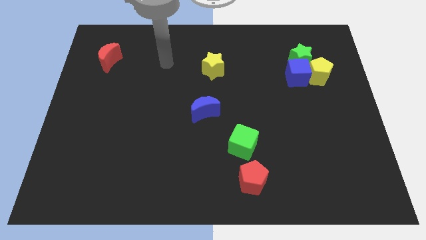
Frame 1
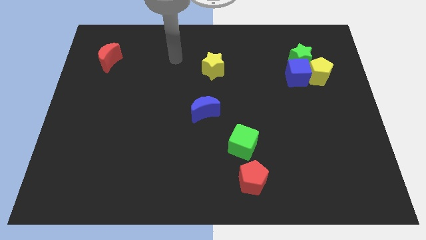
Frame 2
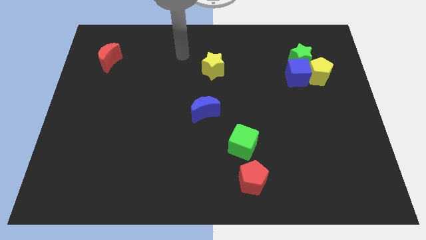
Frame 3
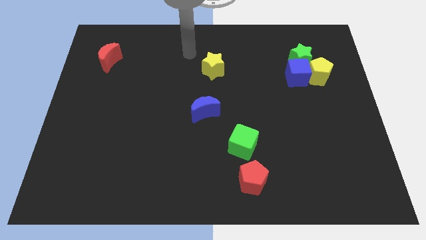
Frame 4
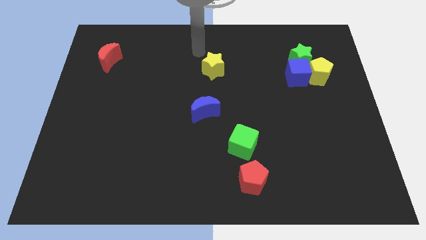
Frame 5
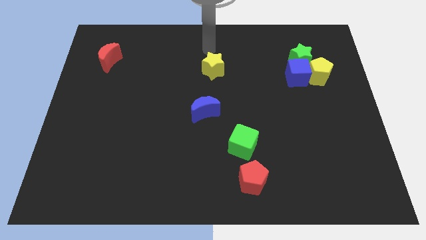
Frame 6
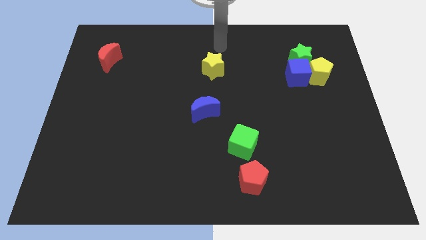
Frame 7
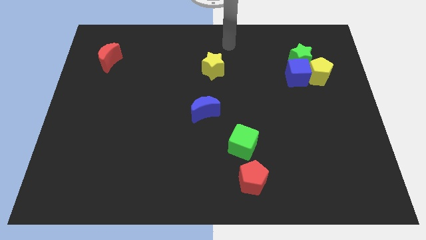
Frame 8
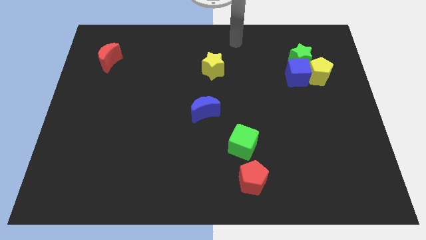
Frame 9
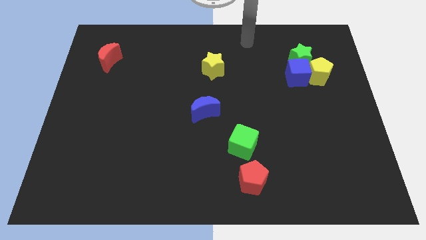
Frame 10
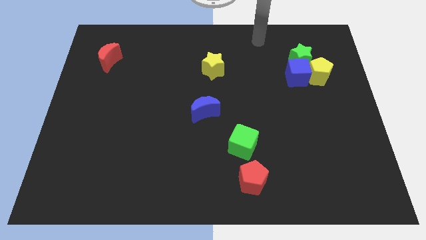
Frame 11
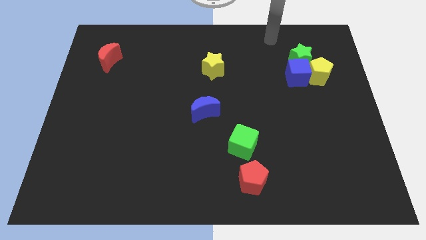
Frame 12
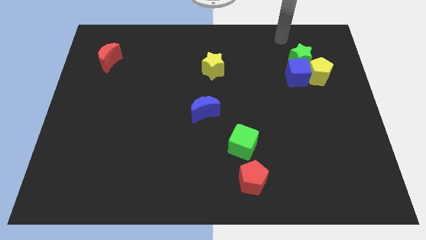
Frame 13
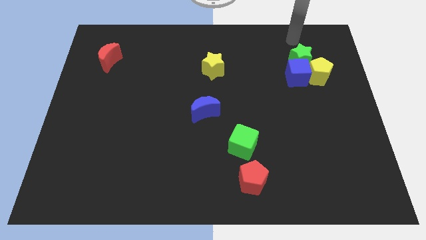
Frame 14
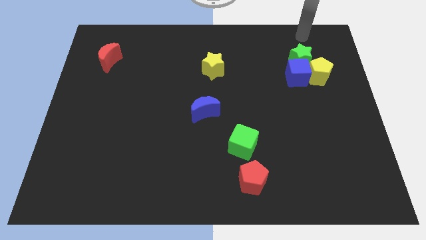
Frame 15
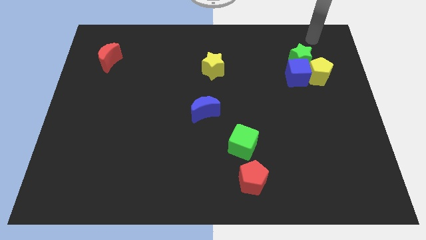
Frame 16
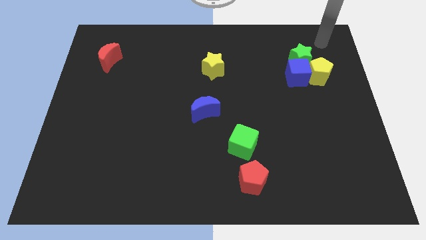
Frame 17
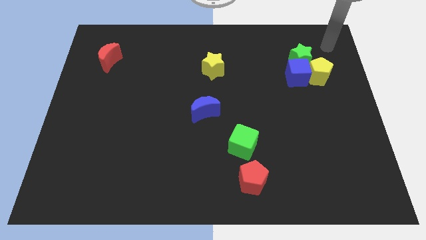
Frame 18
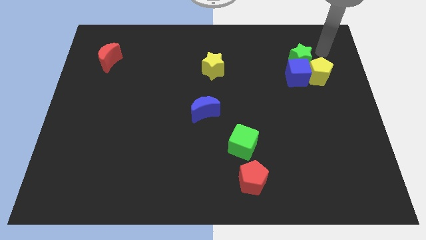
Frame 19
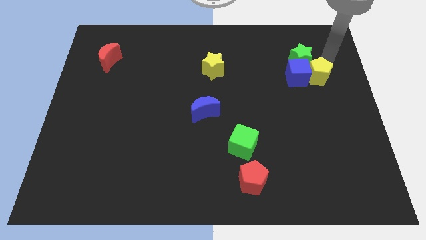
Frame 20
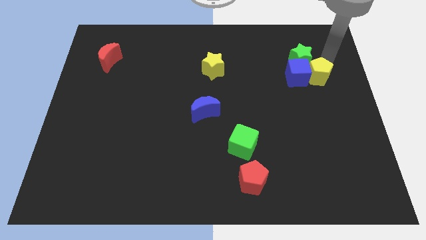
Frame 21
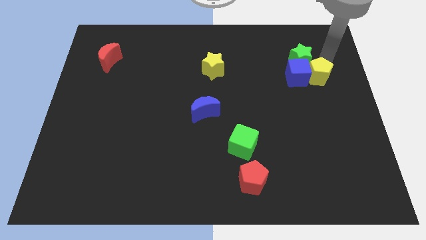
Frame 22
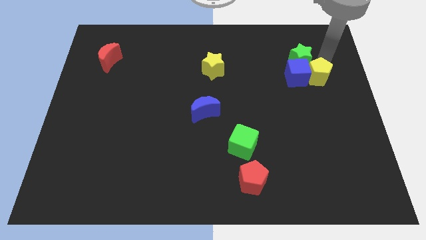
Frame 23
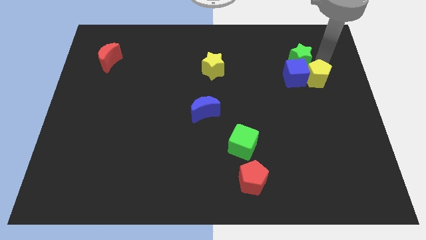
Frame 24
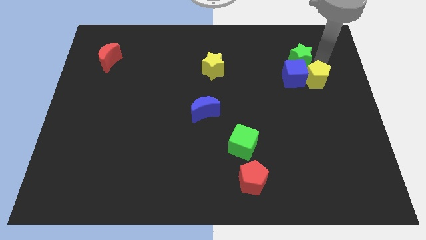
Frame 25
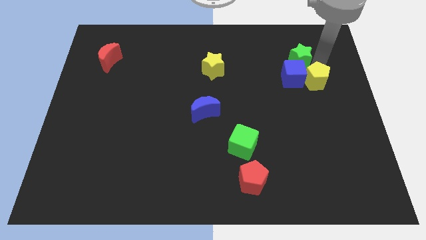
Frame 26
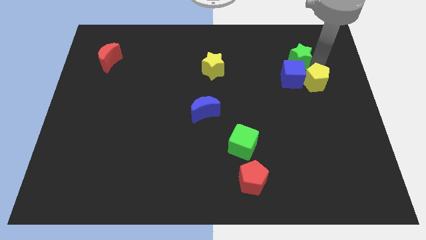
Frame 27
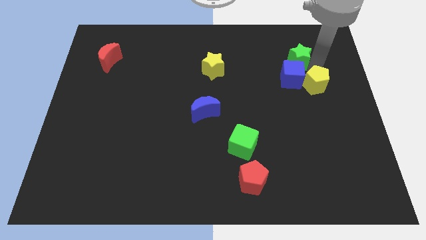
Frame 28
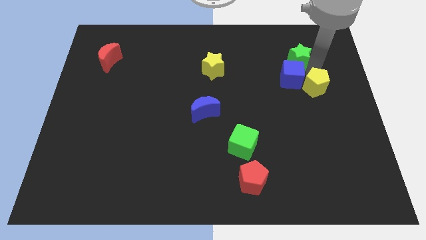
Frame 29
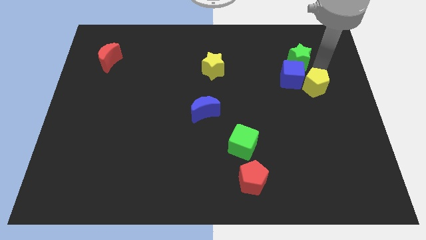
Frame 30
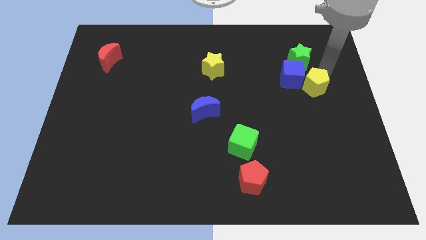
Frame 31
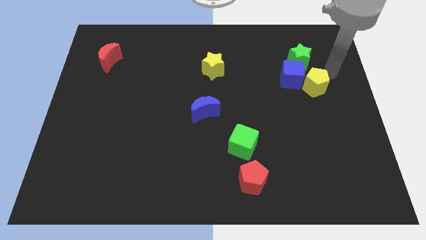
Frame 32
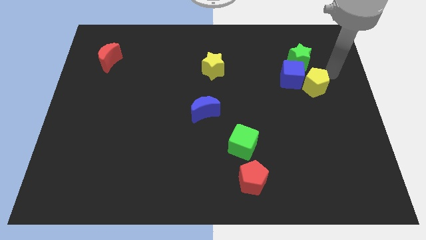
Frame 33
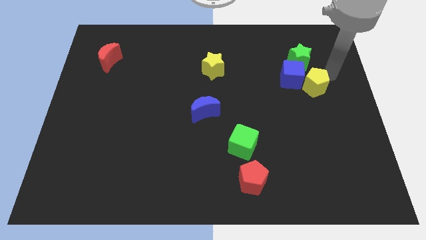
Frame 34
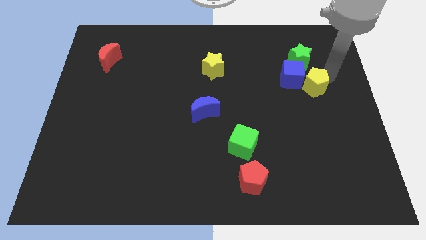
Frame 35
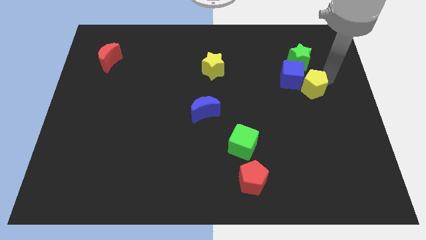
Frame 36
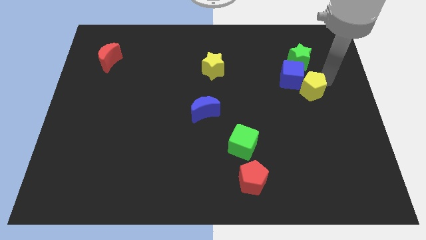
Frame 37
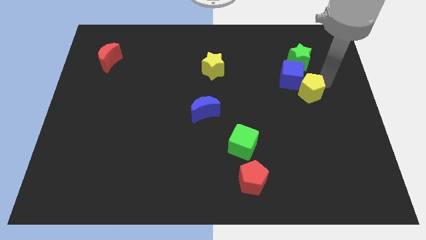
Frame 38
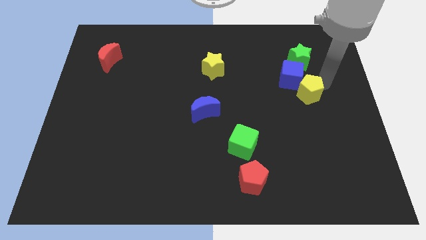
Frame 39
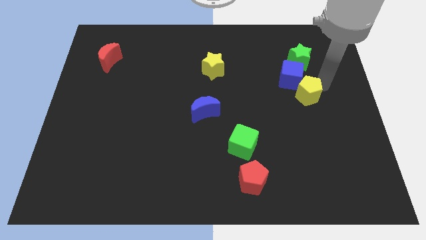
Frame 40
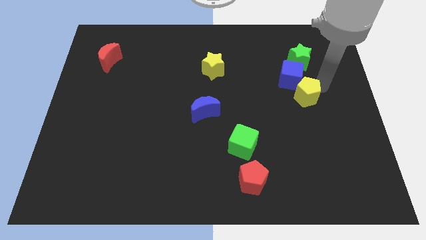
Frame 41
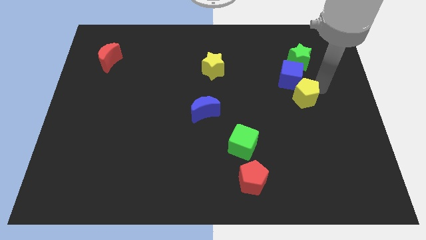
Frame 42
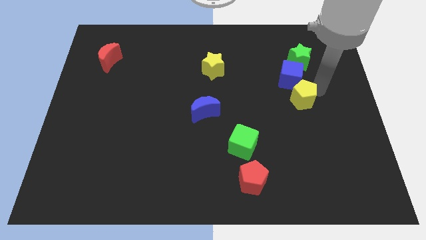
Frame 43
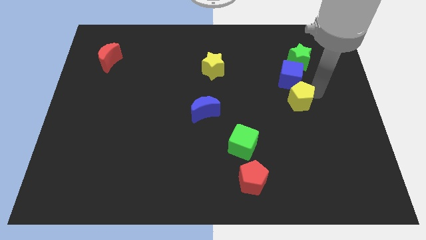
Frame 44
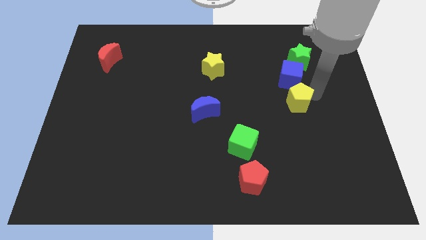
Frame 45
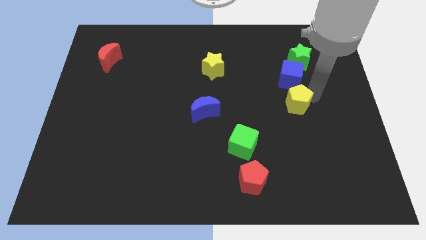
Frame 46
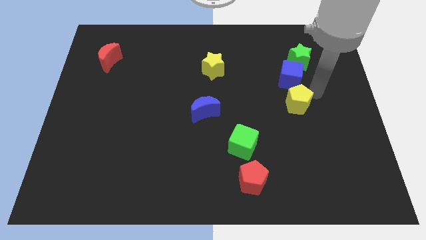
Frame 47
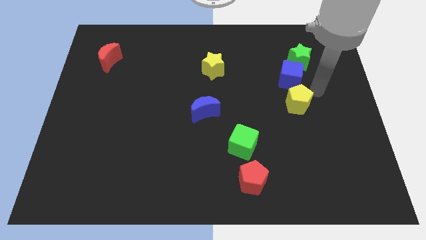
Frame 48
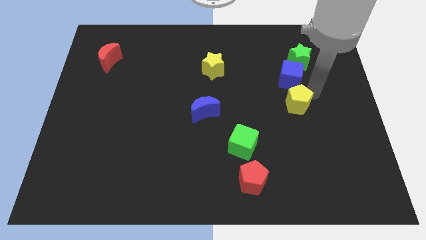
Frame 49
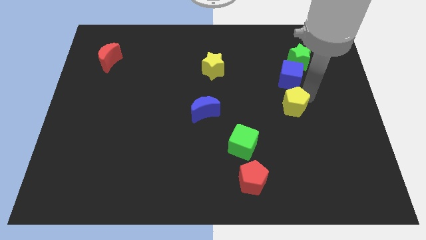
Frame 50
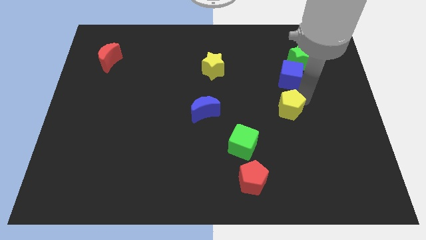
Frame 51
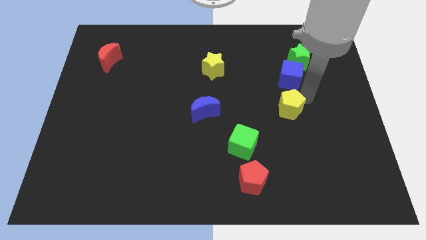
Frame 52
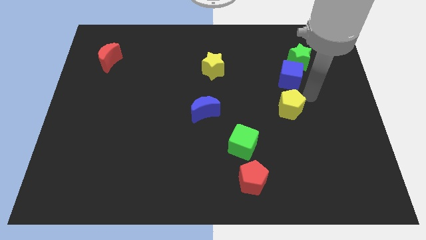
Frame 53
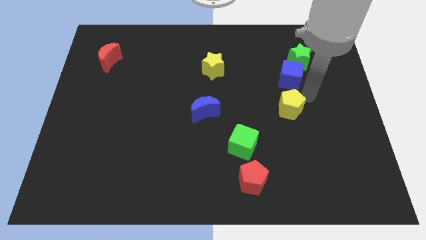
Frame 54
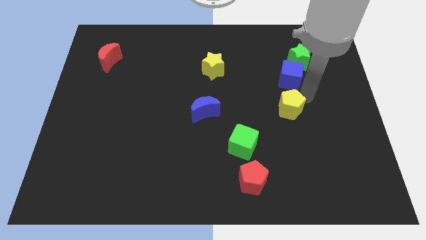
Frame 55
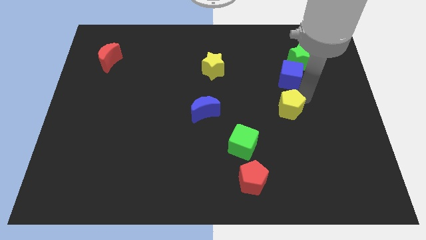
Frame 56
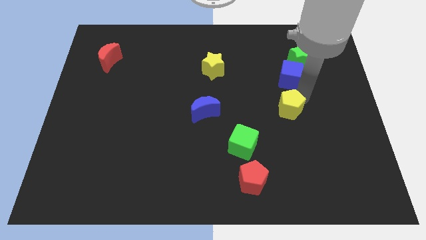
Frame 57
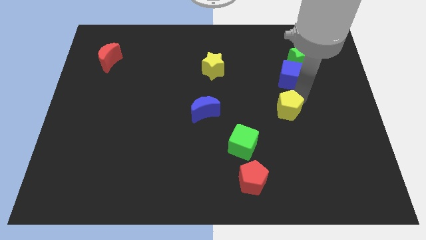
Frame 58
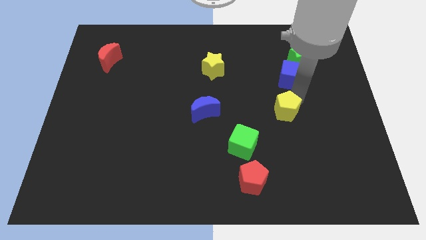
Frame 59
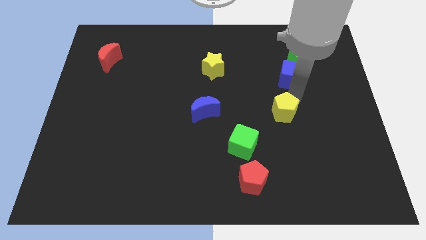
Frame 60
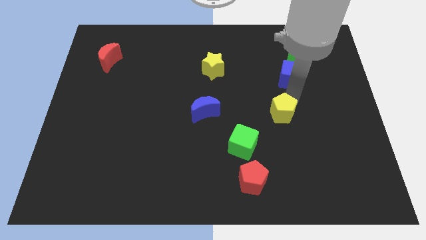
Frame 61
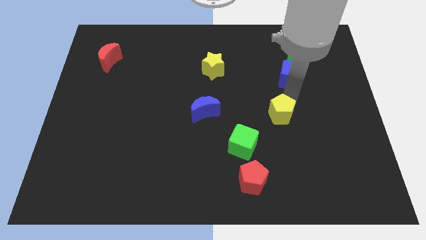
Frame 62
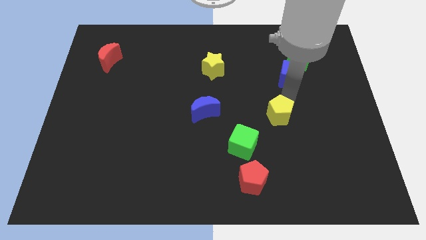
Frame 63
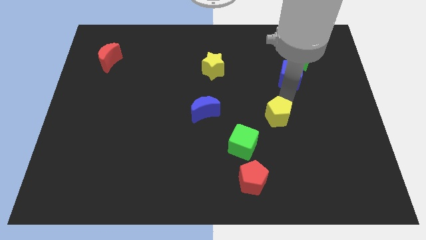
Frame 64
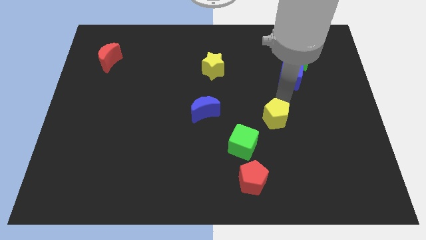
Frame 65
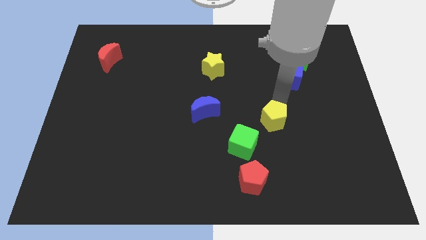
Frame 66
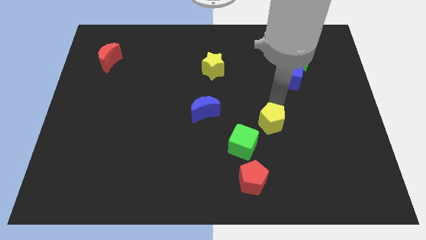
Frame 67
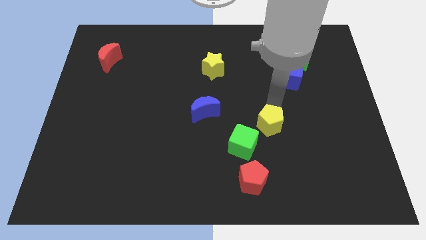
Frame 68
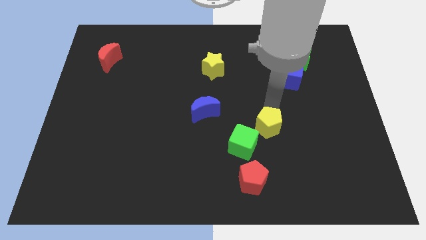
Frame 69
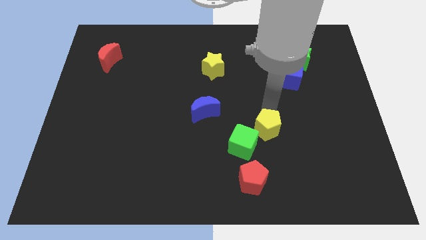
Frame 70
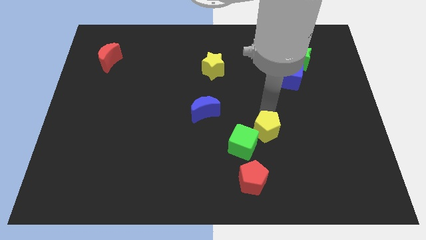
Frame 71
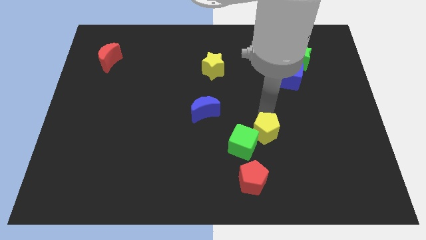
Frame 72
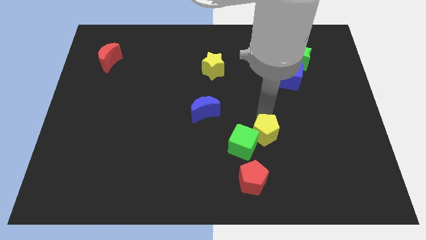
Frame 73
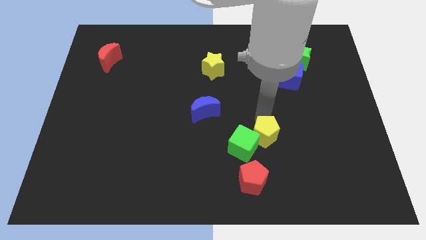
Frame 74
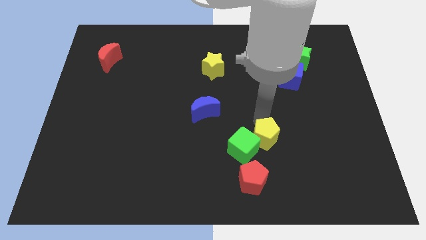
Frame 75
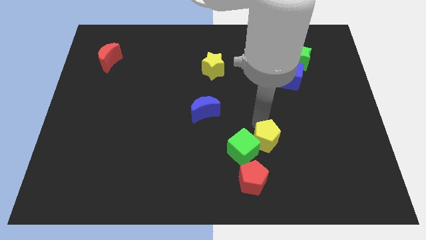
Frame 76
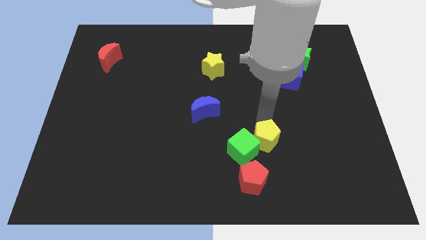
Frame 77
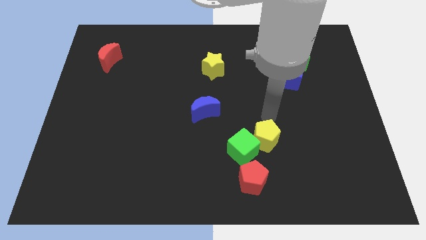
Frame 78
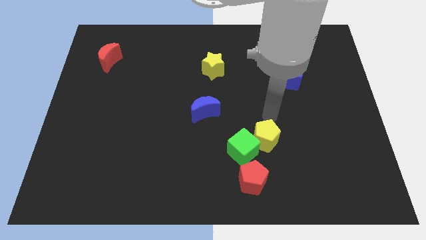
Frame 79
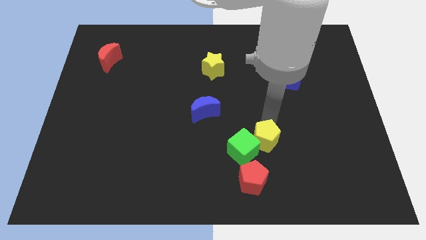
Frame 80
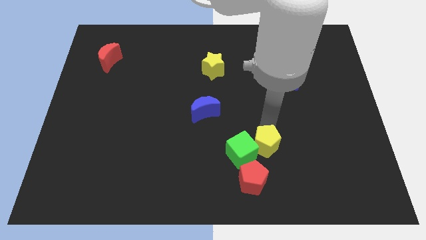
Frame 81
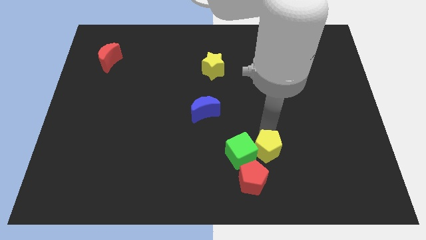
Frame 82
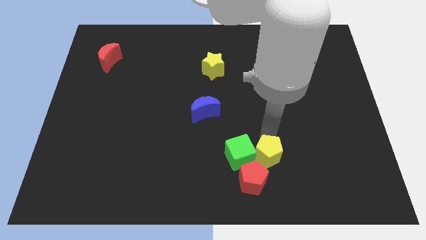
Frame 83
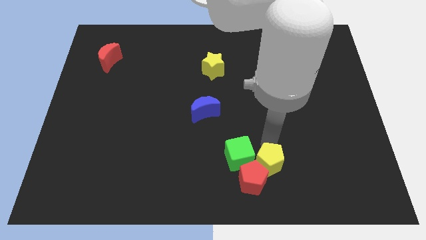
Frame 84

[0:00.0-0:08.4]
push the yellow pentagon towards the red pentagon
